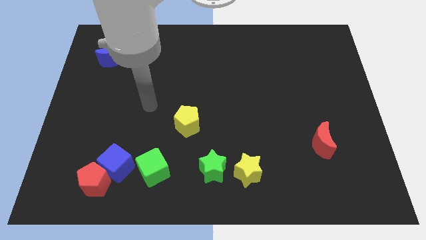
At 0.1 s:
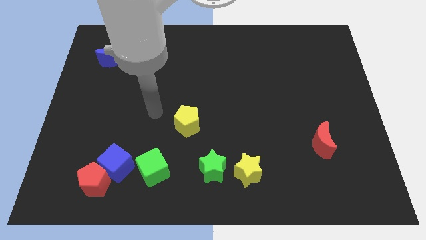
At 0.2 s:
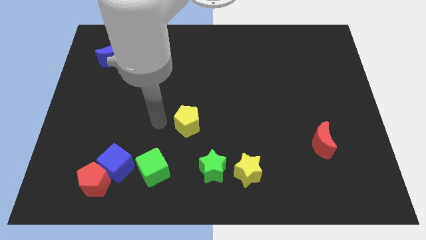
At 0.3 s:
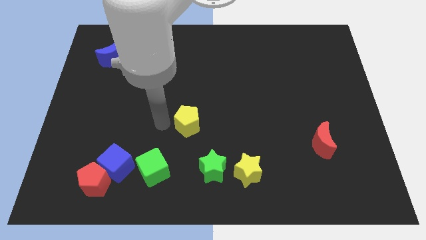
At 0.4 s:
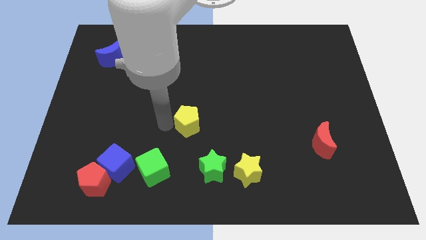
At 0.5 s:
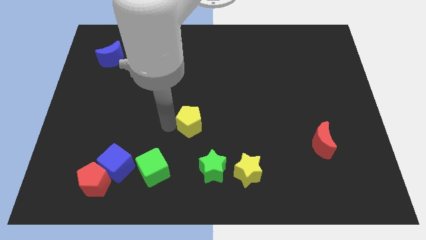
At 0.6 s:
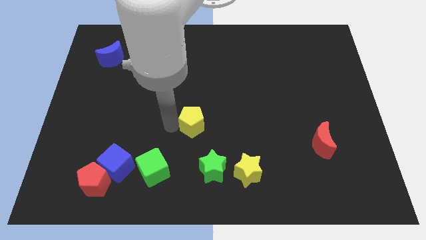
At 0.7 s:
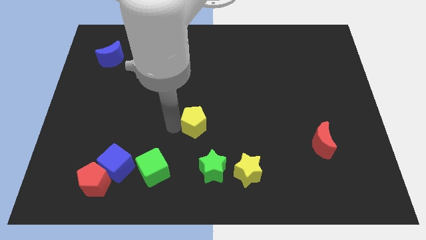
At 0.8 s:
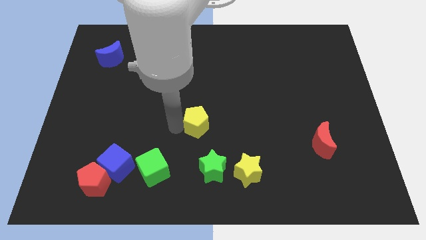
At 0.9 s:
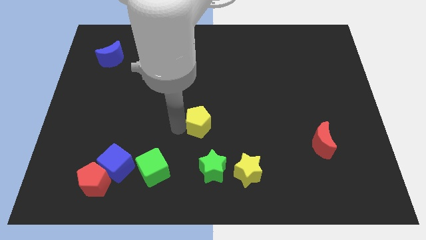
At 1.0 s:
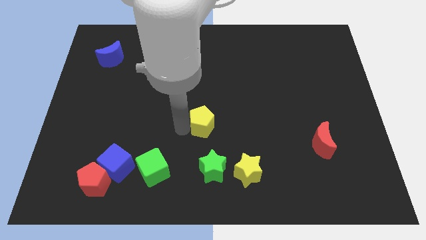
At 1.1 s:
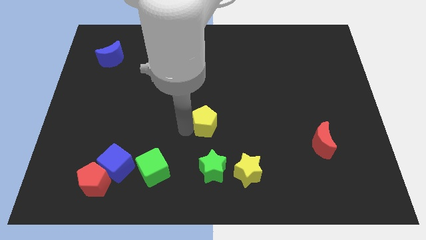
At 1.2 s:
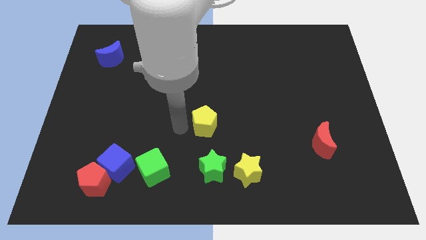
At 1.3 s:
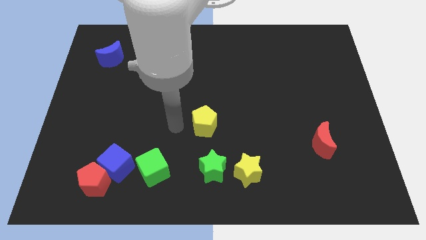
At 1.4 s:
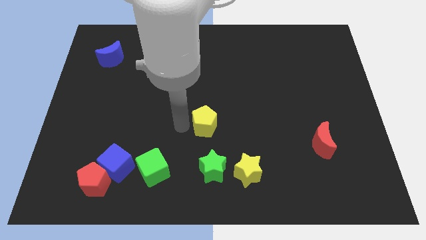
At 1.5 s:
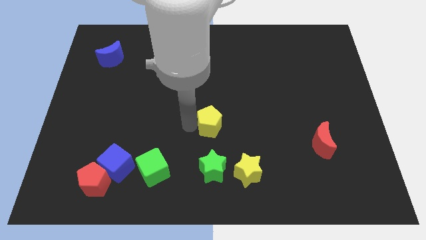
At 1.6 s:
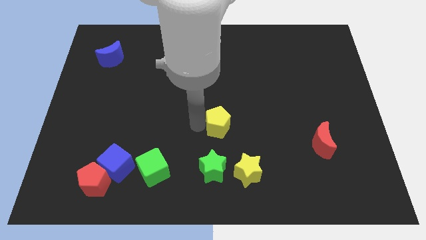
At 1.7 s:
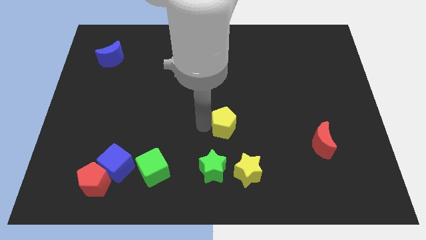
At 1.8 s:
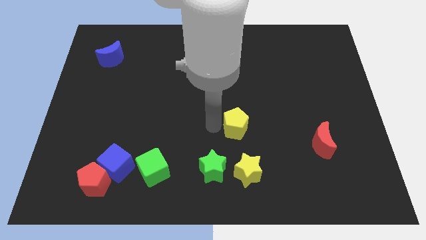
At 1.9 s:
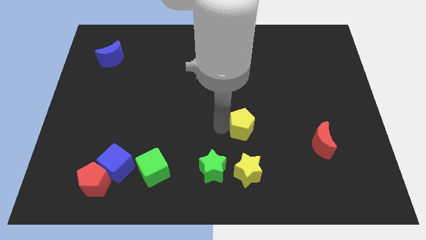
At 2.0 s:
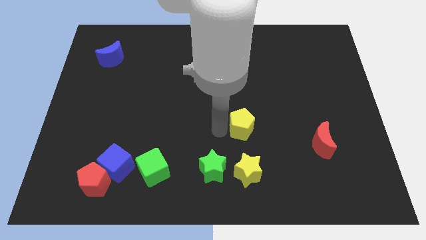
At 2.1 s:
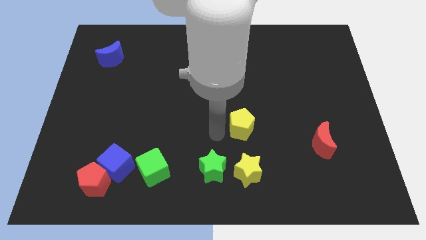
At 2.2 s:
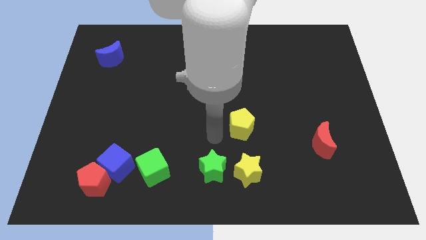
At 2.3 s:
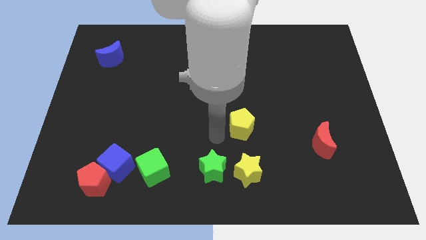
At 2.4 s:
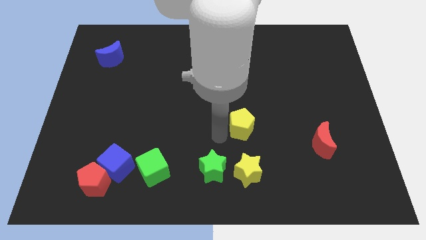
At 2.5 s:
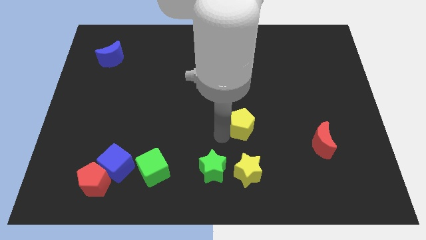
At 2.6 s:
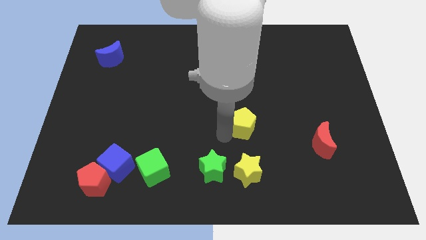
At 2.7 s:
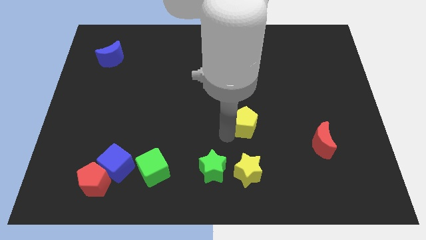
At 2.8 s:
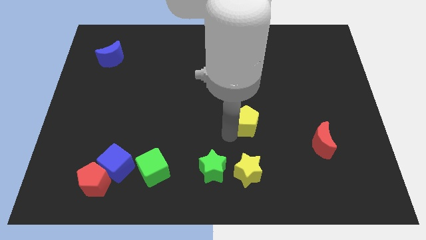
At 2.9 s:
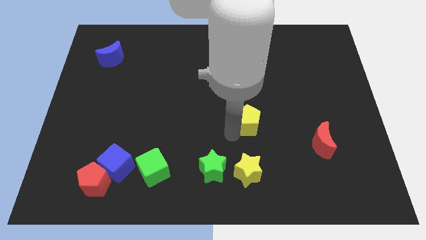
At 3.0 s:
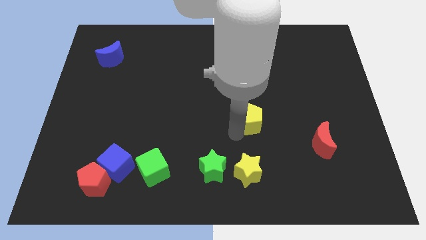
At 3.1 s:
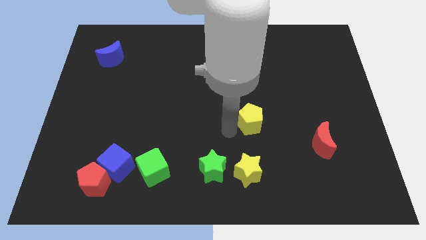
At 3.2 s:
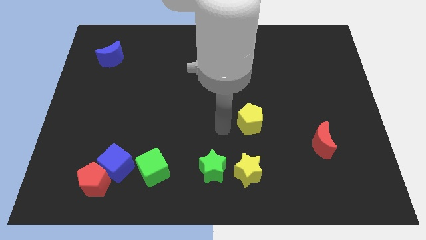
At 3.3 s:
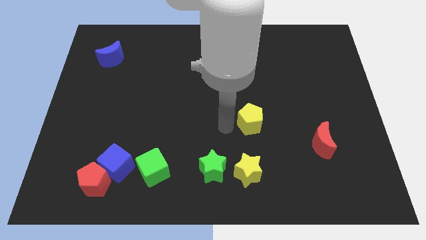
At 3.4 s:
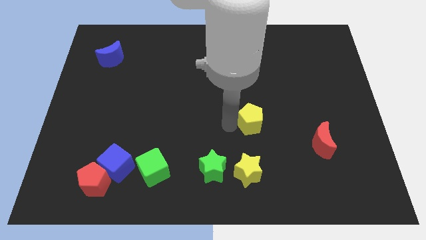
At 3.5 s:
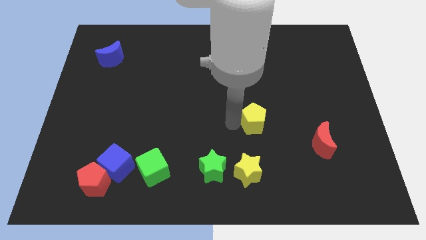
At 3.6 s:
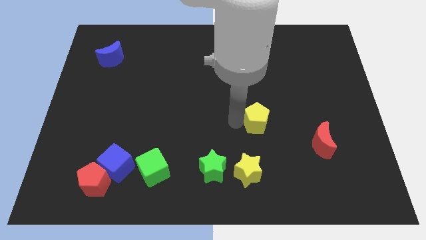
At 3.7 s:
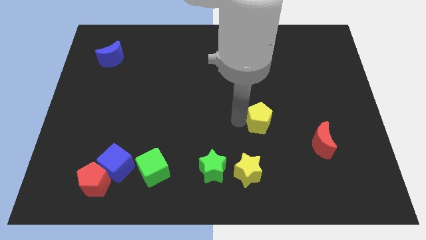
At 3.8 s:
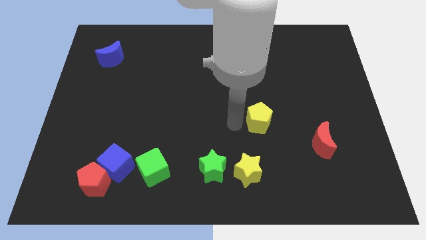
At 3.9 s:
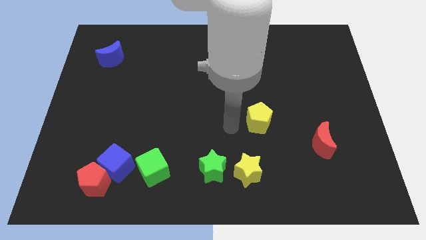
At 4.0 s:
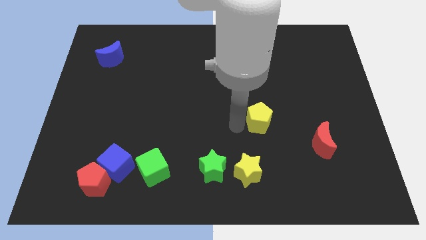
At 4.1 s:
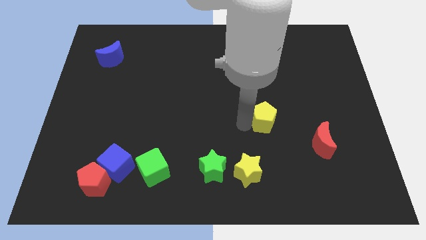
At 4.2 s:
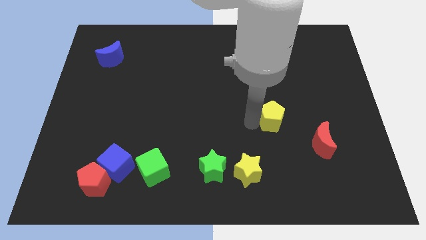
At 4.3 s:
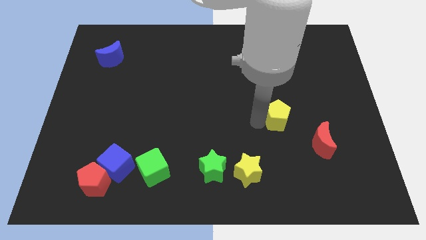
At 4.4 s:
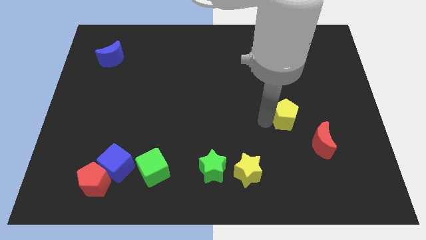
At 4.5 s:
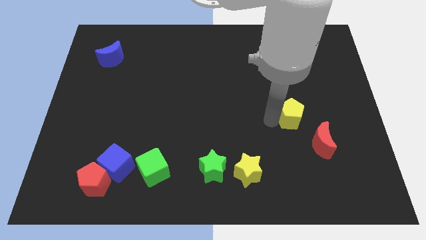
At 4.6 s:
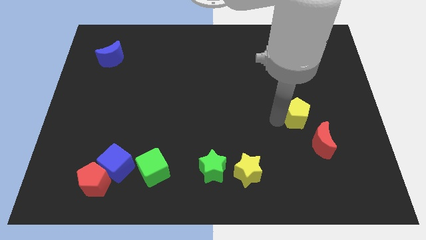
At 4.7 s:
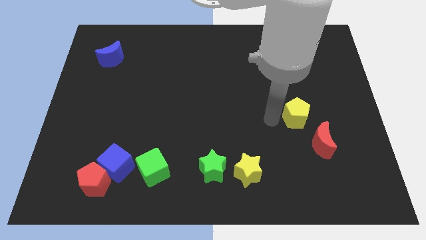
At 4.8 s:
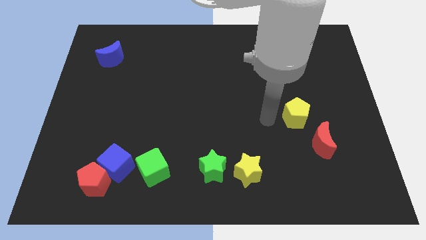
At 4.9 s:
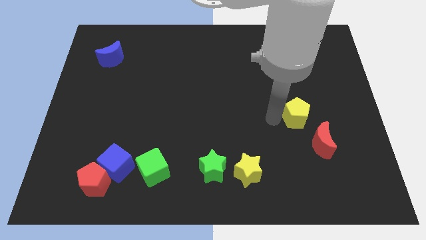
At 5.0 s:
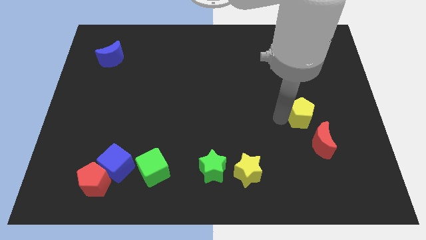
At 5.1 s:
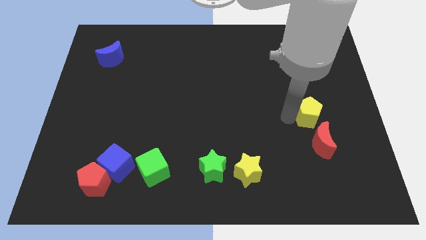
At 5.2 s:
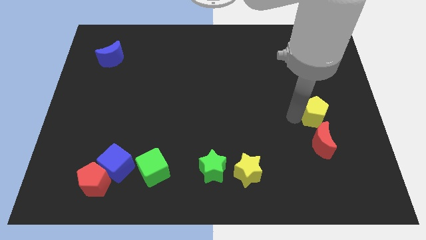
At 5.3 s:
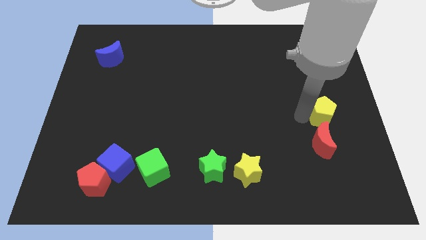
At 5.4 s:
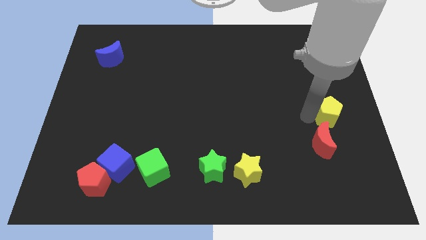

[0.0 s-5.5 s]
put the yellow pentagon to the right side of the board
